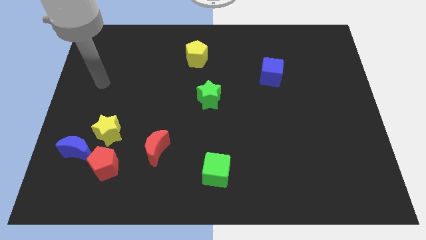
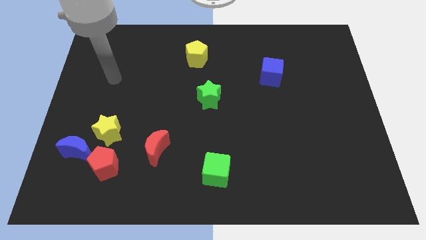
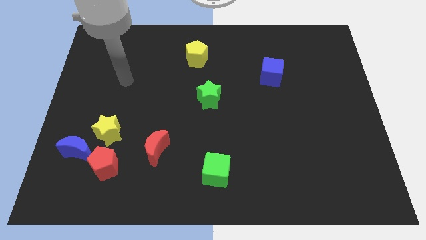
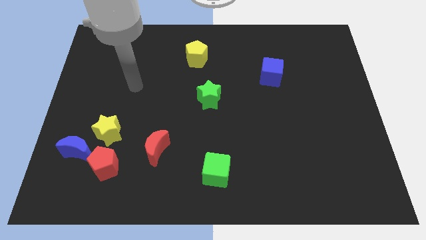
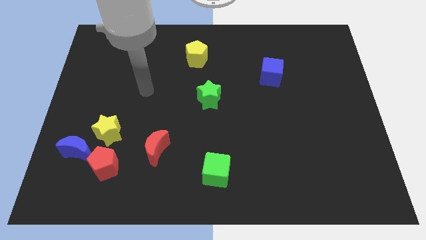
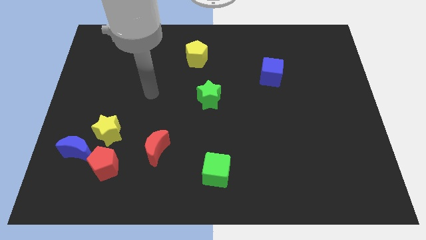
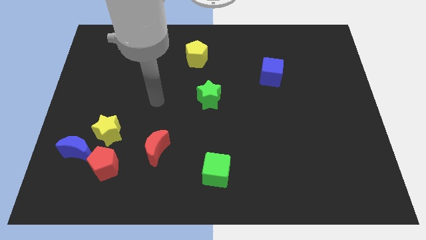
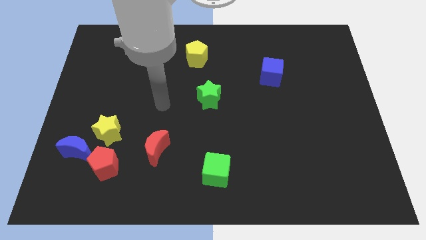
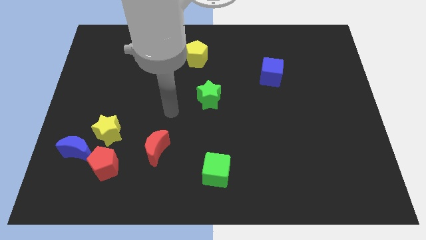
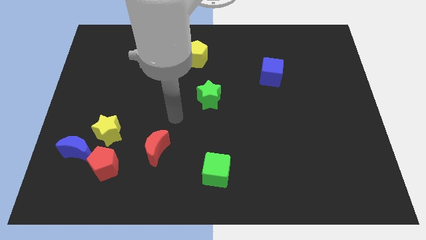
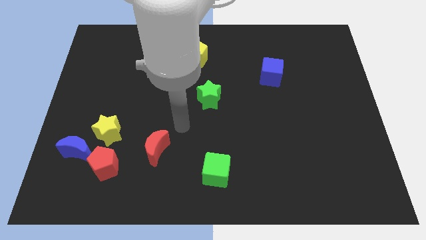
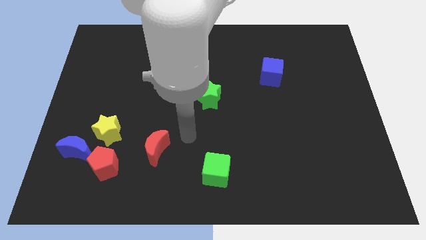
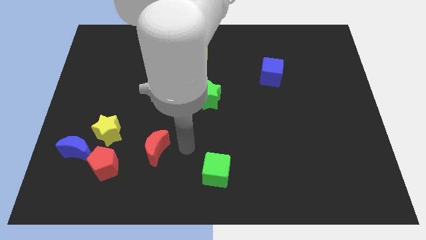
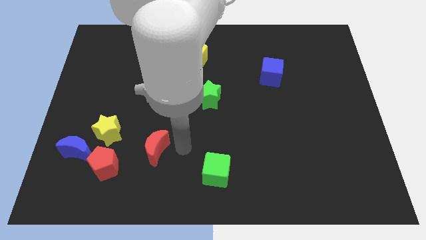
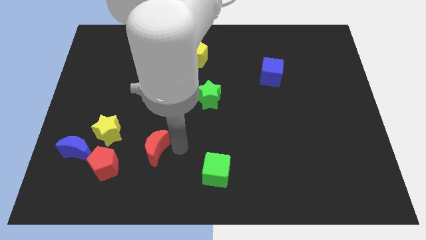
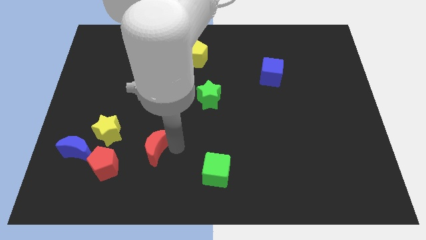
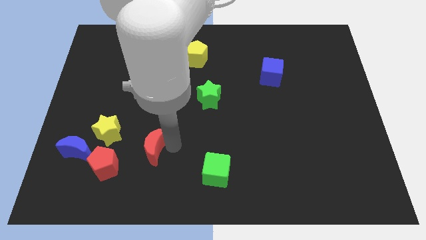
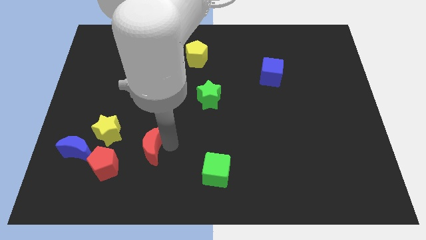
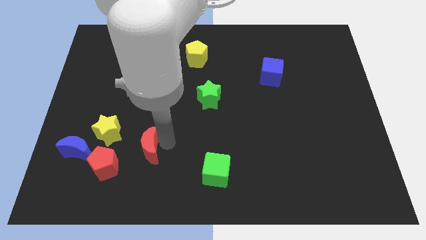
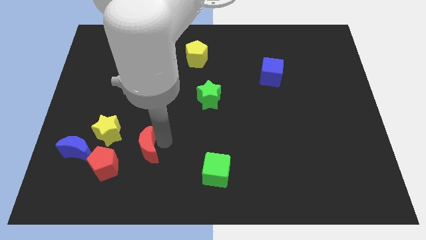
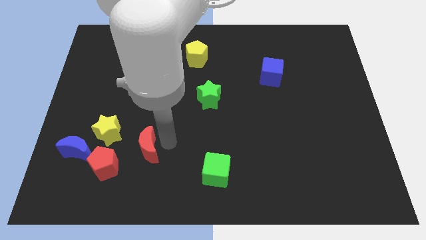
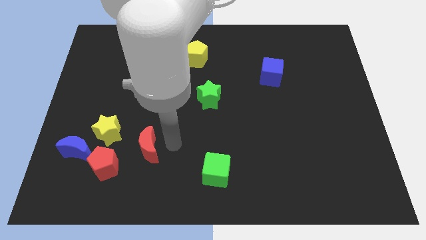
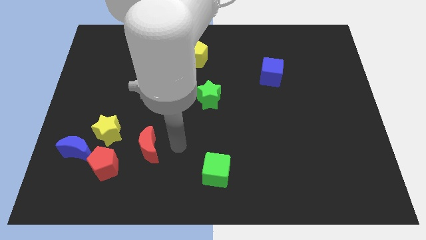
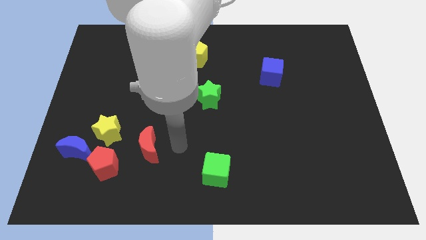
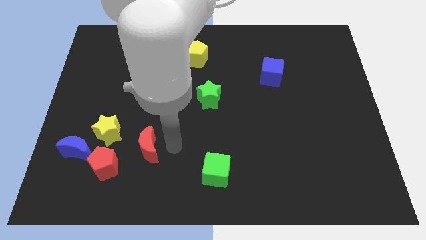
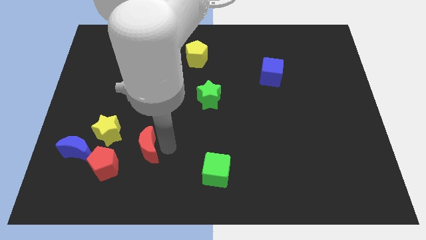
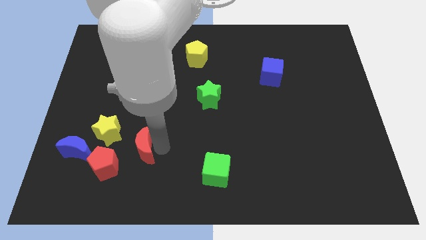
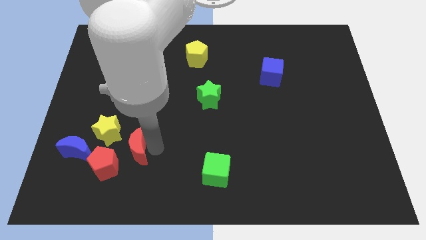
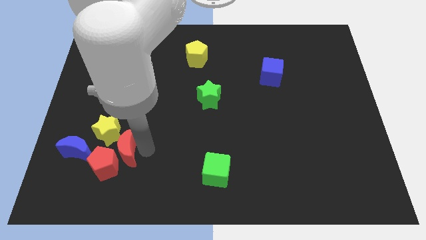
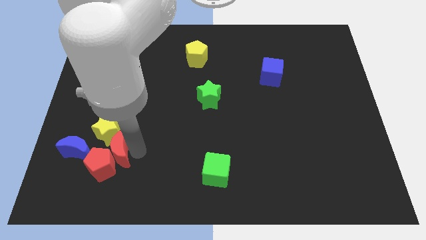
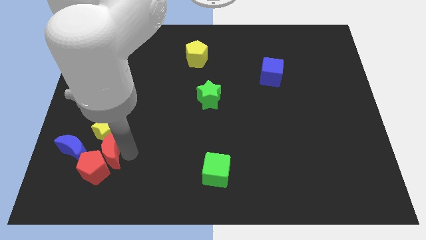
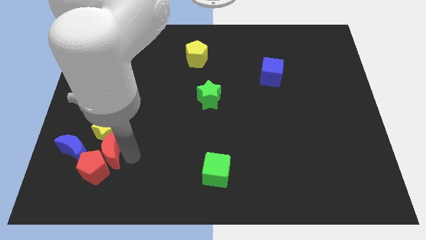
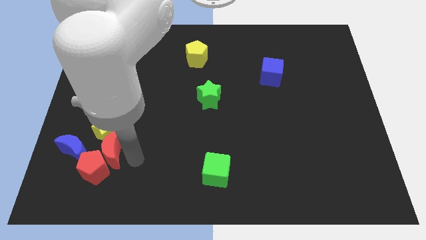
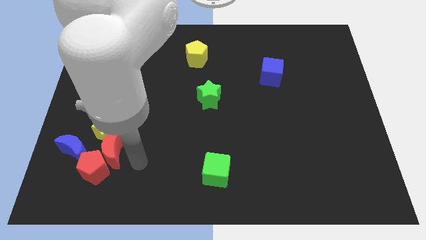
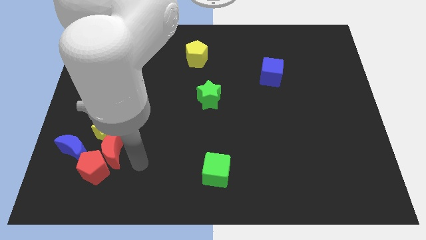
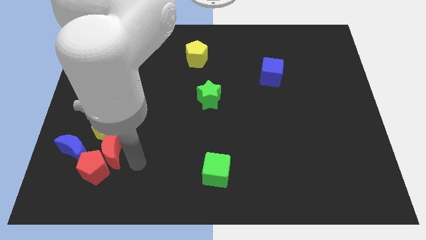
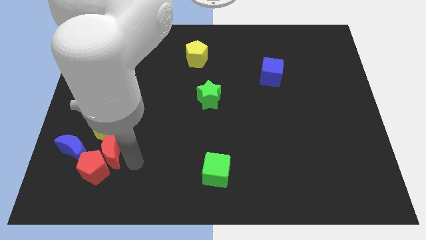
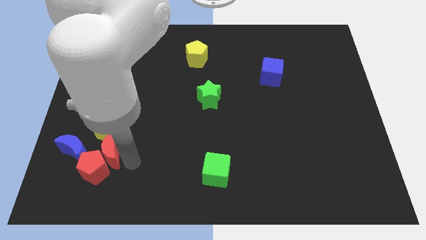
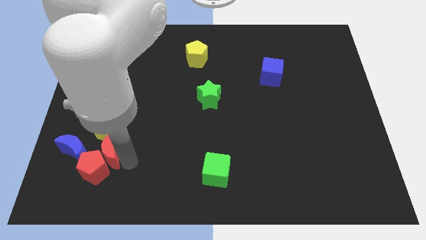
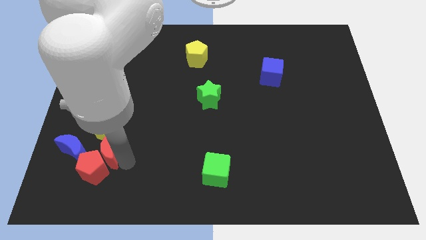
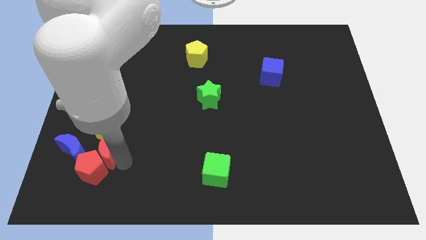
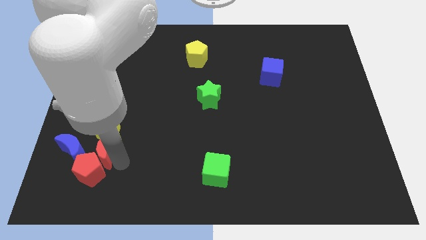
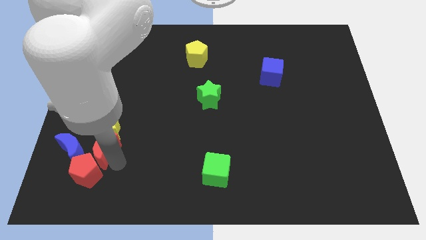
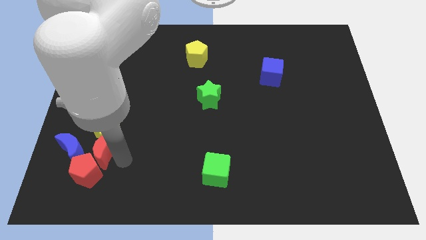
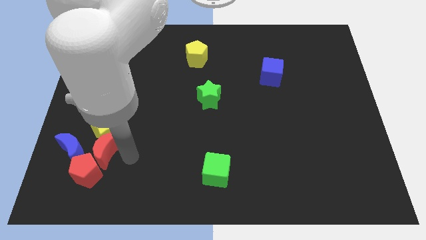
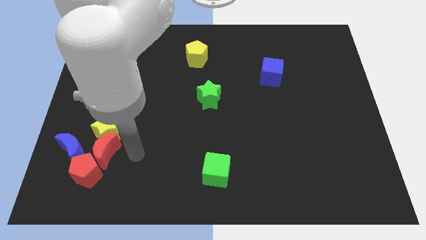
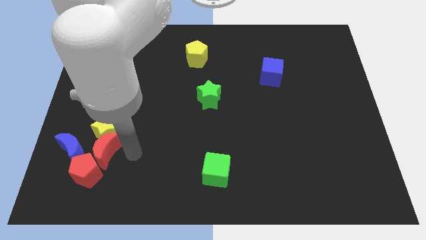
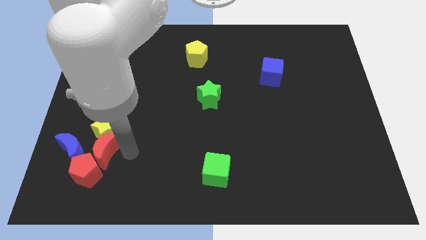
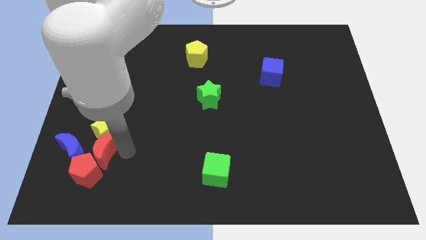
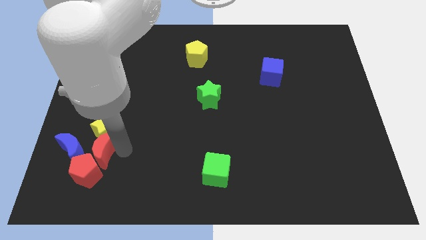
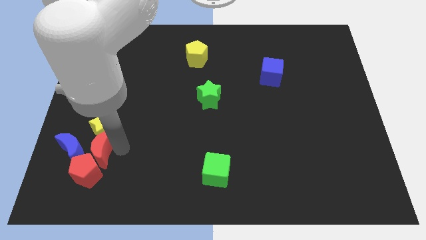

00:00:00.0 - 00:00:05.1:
slide the red moon to the blue moon

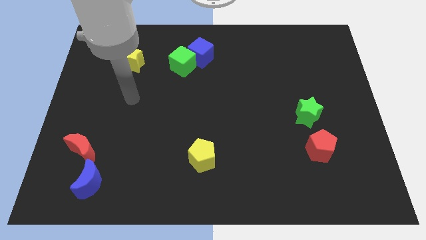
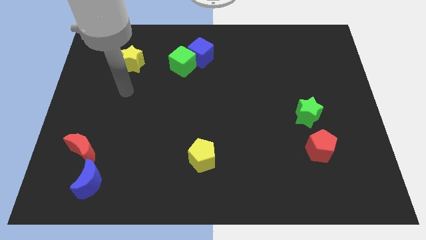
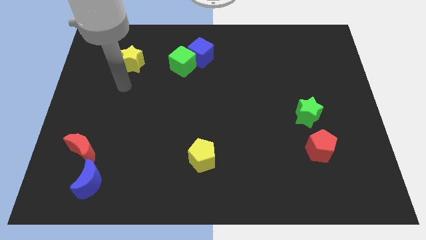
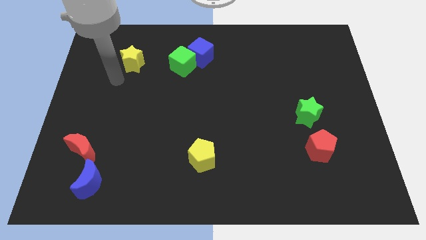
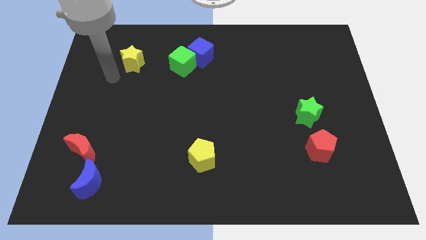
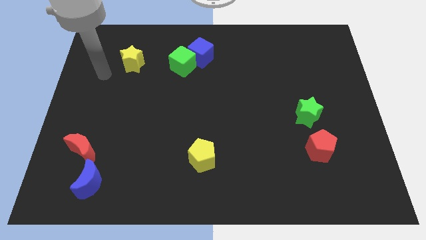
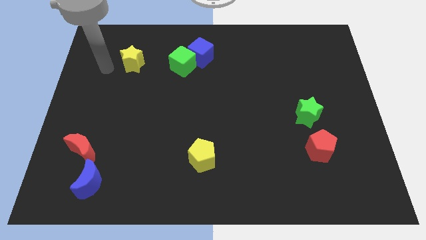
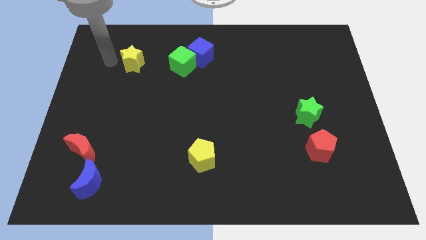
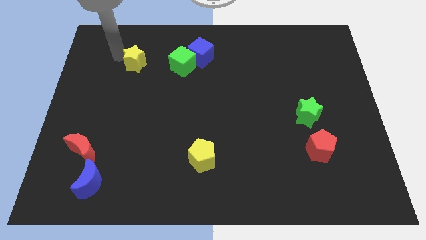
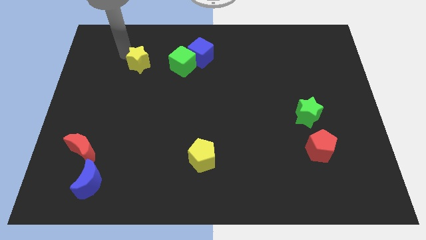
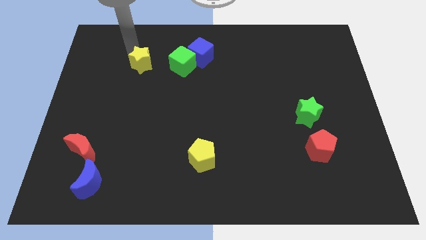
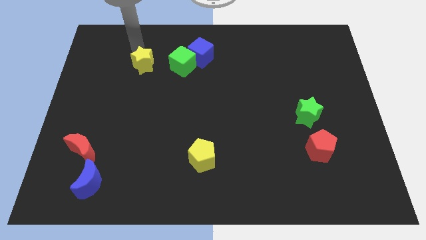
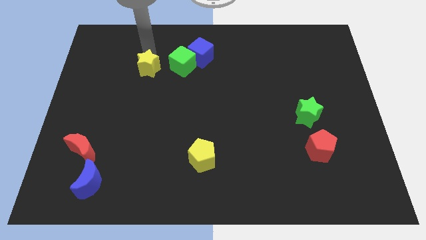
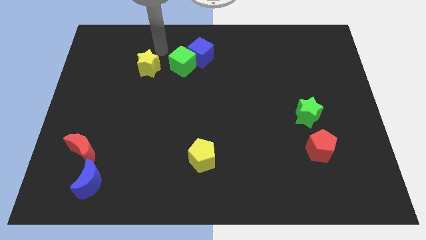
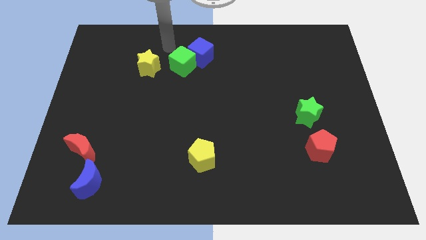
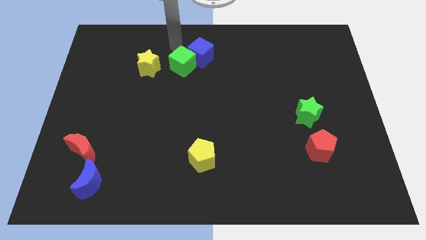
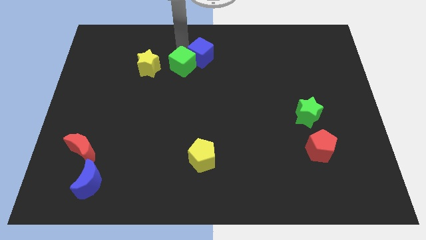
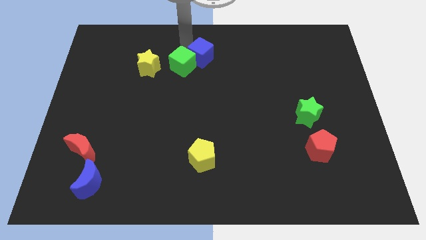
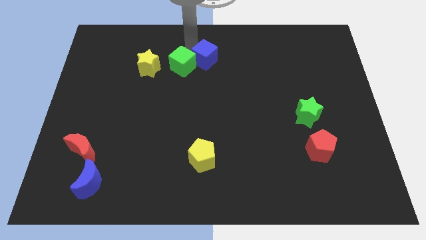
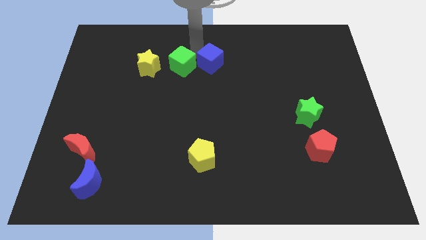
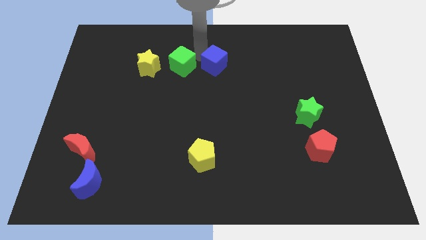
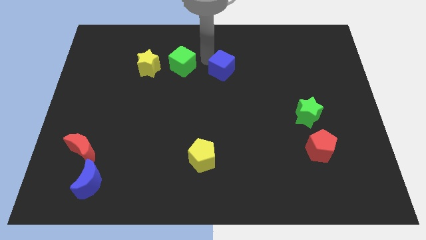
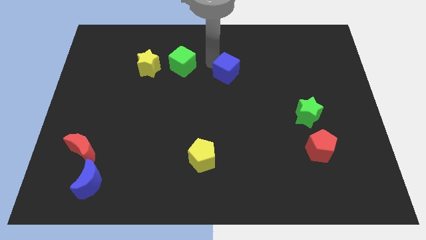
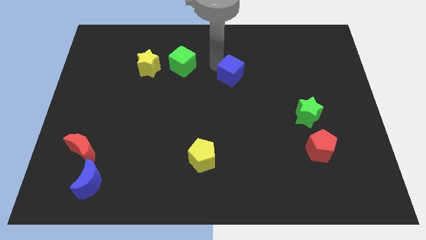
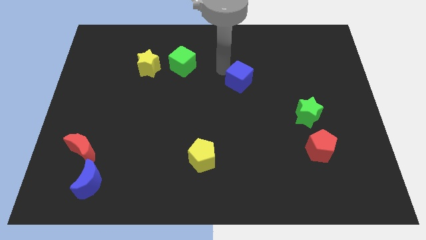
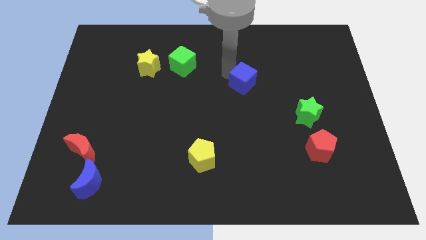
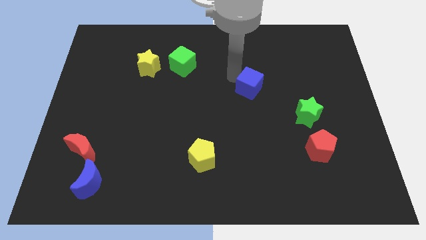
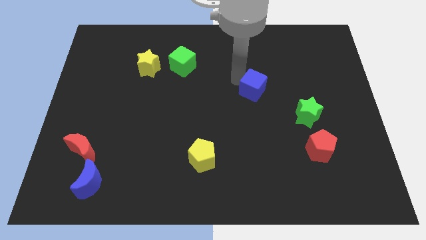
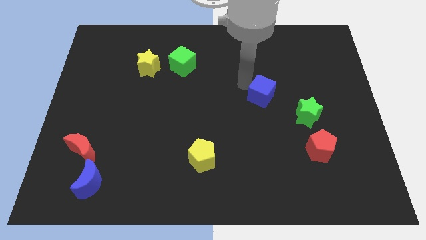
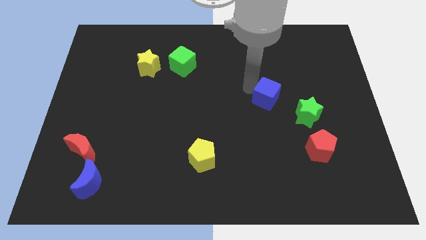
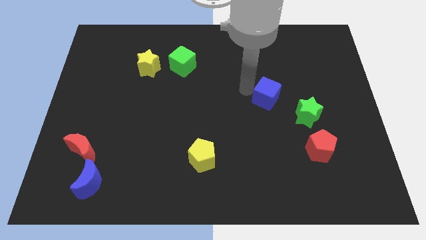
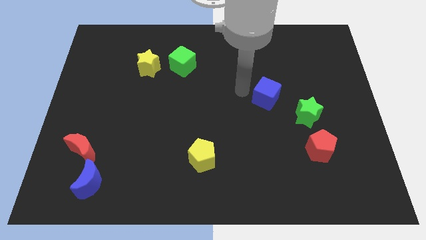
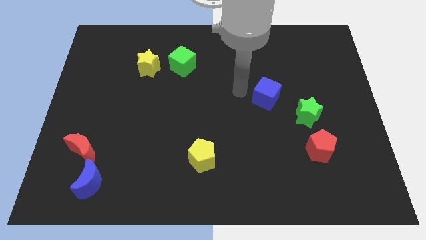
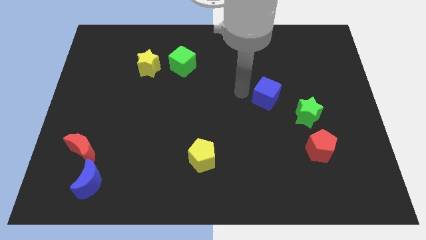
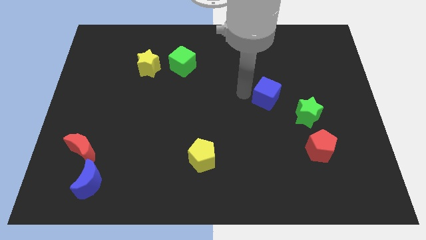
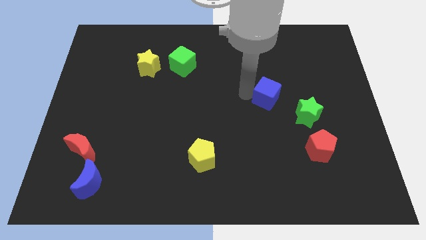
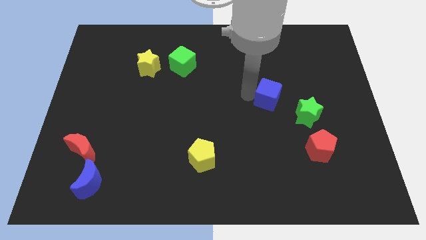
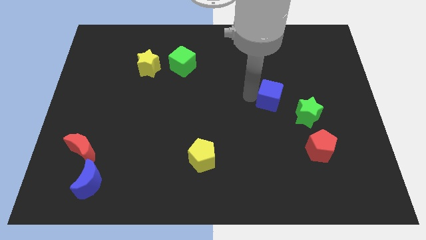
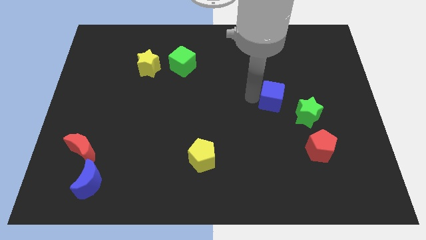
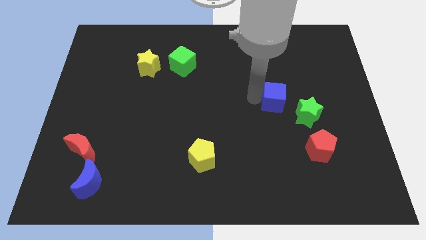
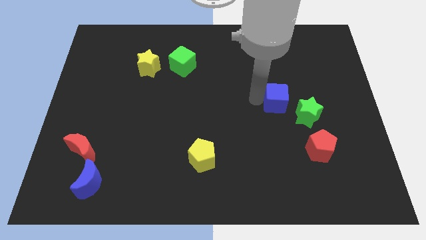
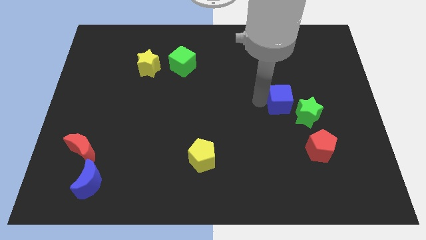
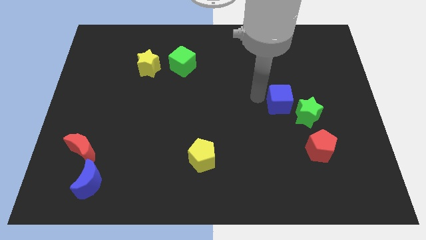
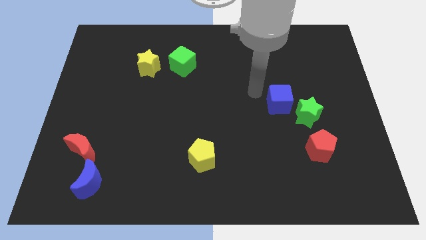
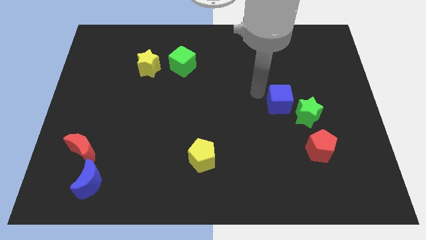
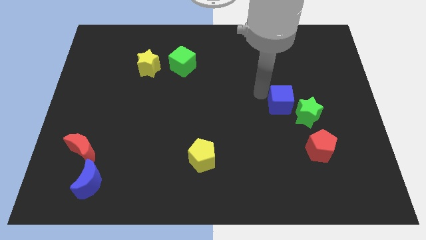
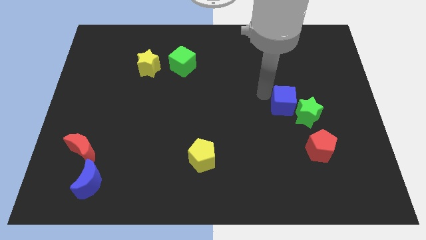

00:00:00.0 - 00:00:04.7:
put the blue cube towards the green star
